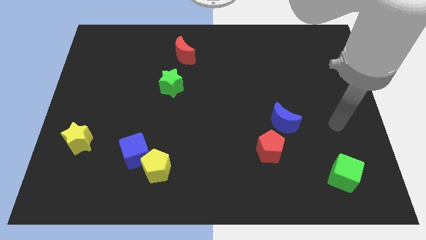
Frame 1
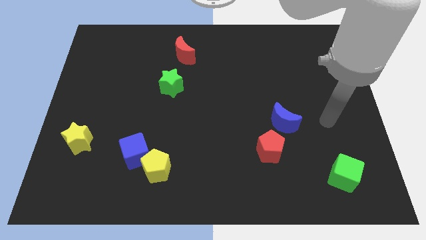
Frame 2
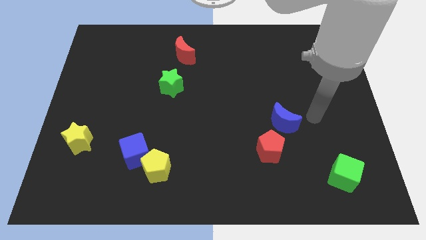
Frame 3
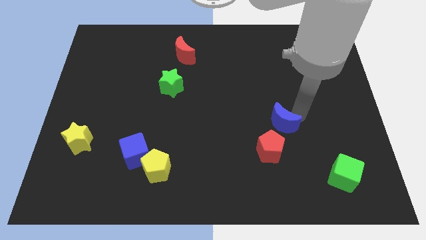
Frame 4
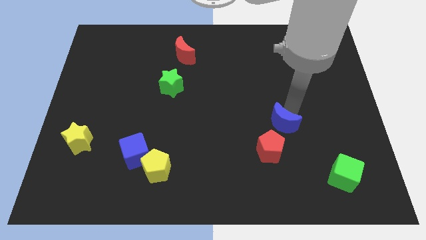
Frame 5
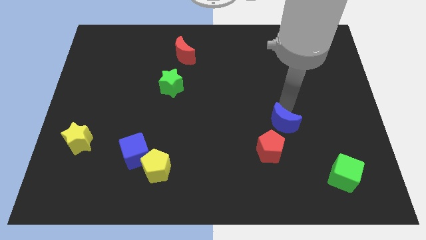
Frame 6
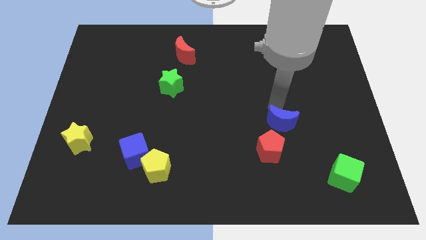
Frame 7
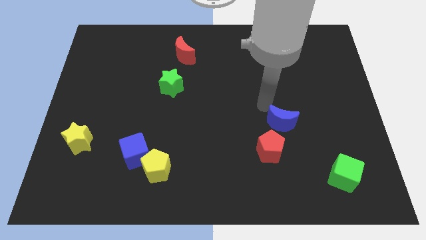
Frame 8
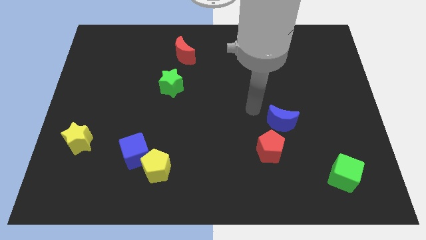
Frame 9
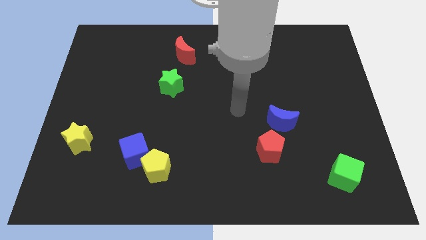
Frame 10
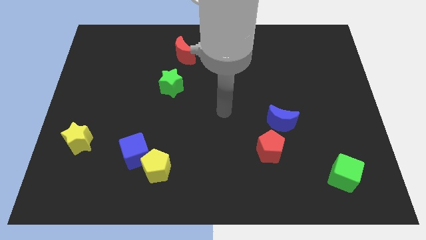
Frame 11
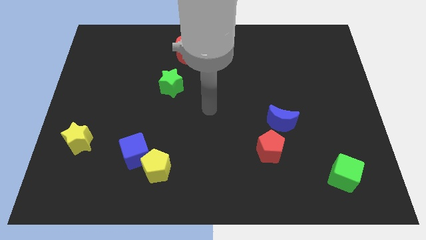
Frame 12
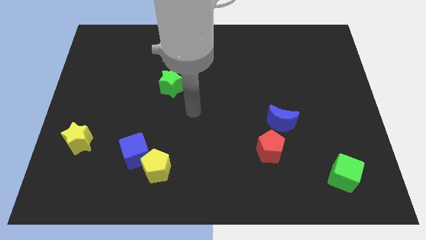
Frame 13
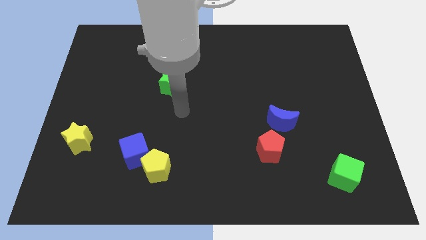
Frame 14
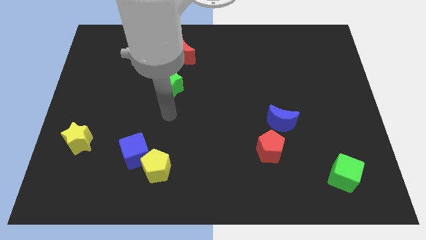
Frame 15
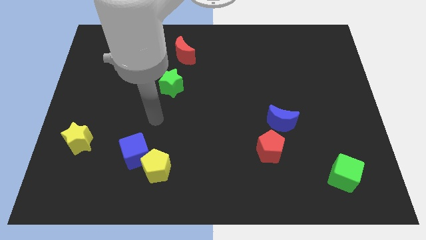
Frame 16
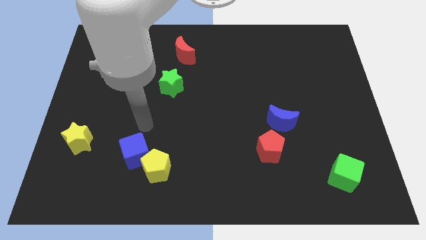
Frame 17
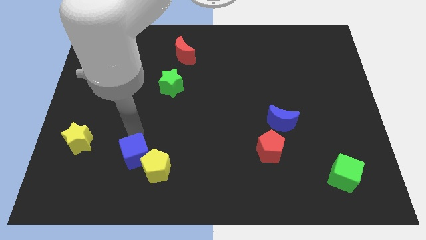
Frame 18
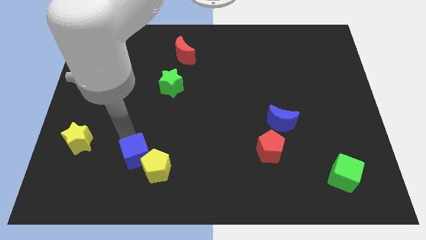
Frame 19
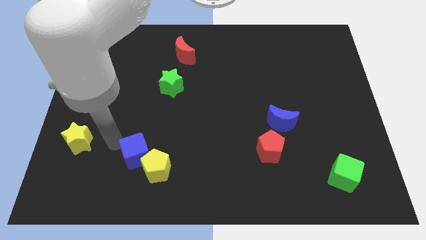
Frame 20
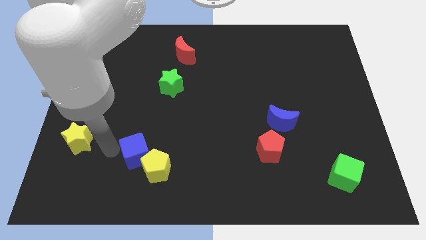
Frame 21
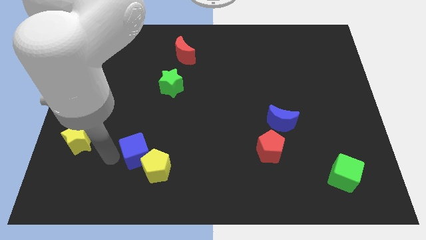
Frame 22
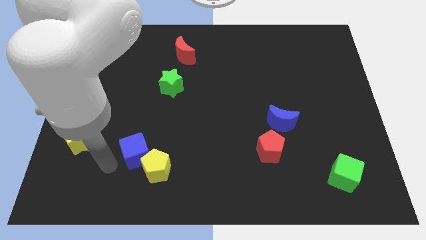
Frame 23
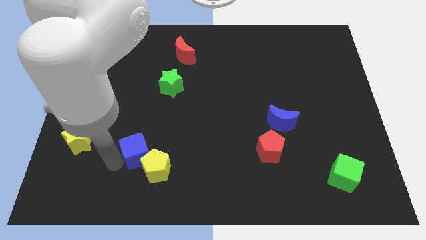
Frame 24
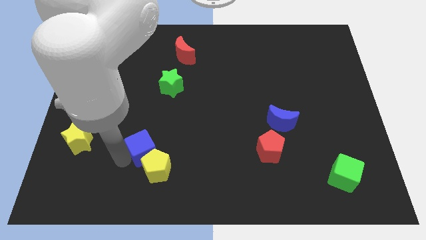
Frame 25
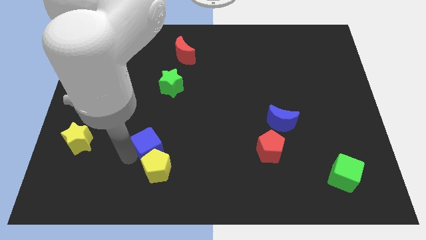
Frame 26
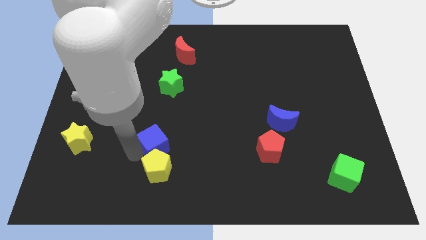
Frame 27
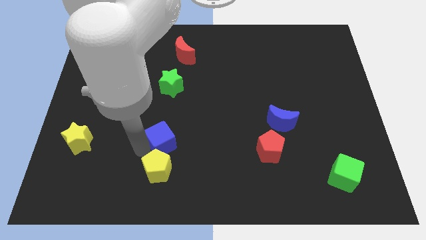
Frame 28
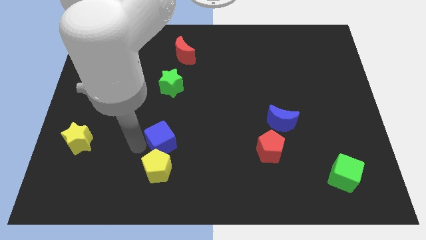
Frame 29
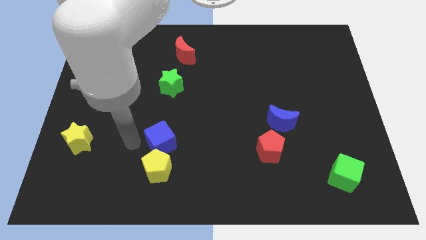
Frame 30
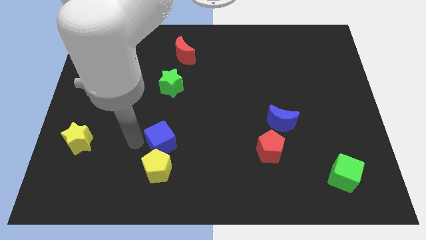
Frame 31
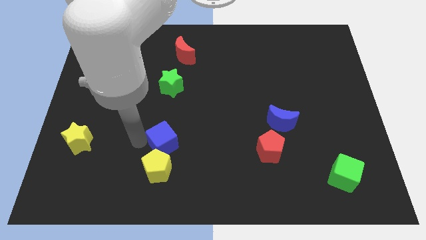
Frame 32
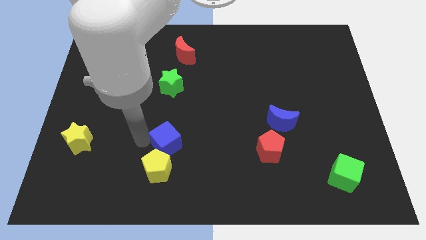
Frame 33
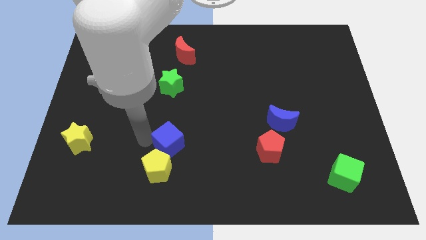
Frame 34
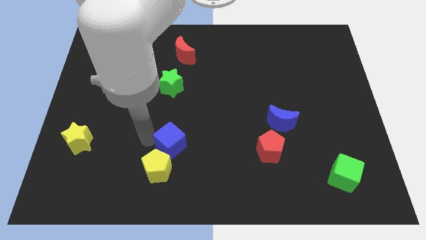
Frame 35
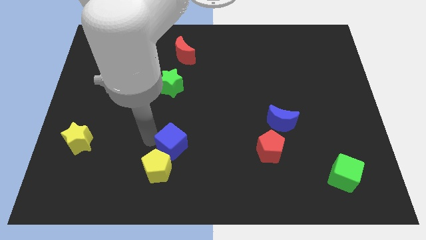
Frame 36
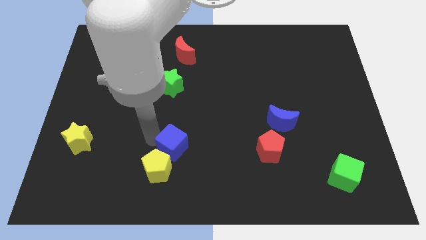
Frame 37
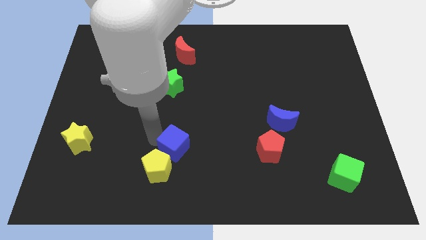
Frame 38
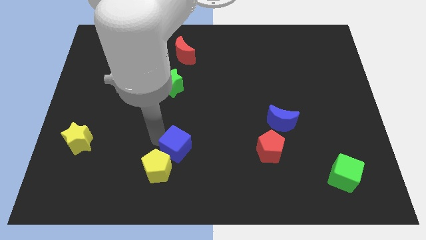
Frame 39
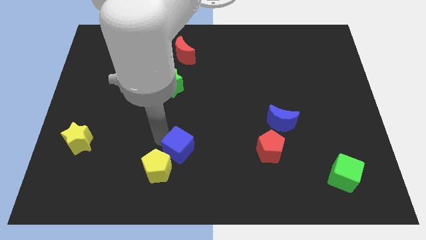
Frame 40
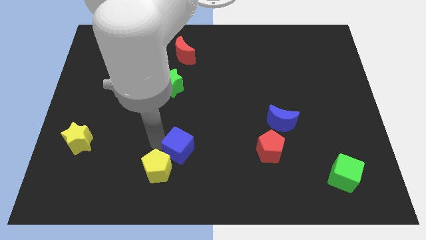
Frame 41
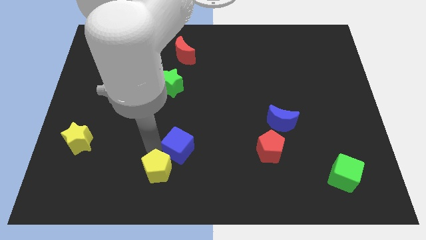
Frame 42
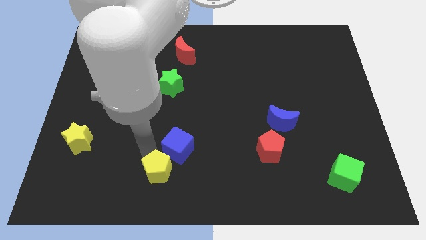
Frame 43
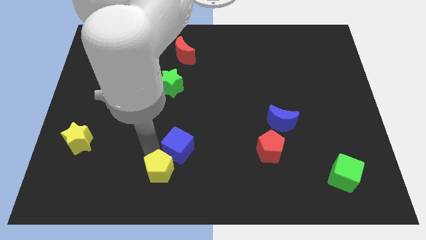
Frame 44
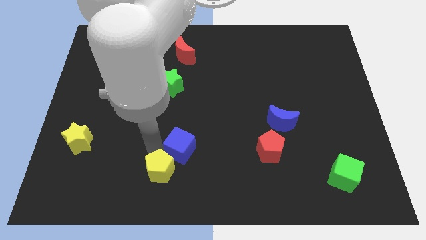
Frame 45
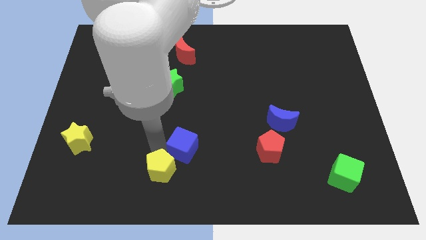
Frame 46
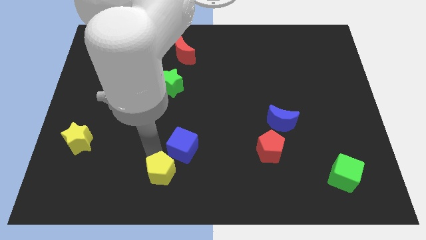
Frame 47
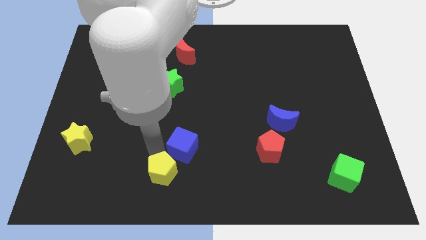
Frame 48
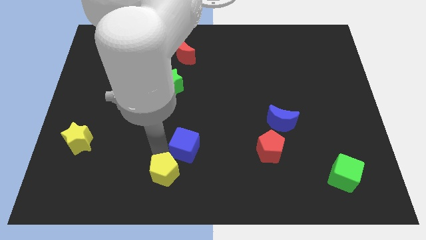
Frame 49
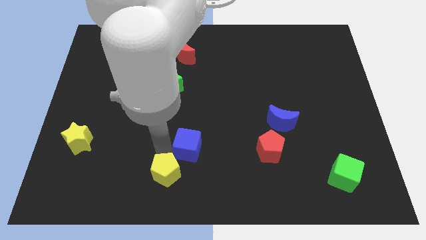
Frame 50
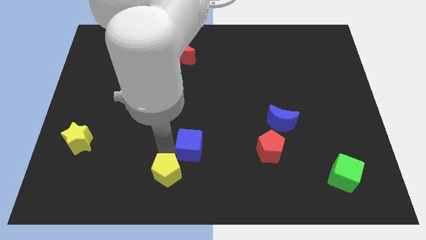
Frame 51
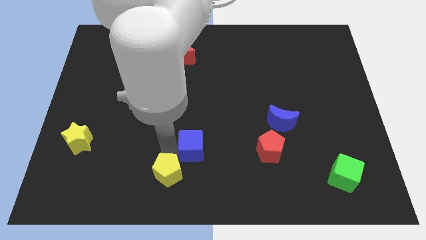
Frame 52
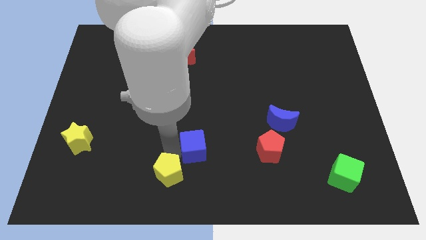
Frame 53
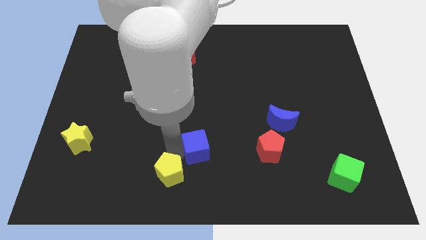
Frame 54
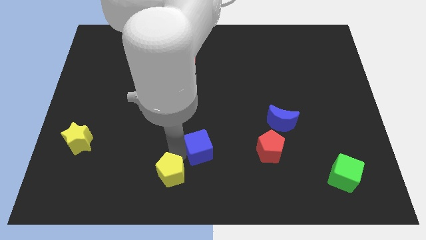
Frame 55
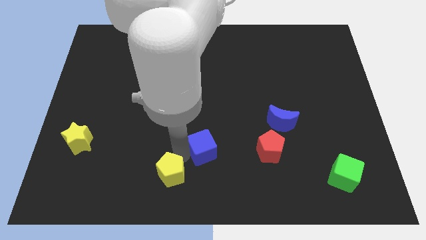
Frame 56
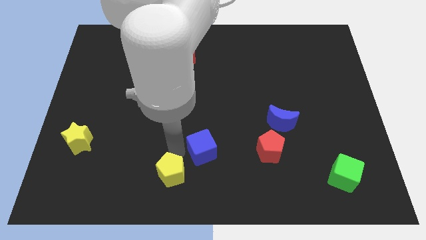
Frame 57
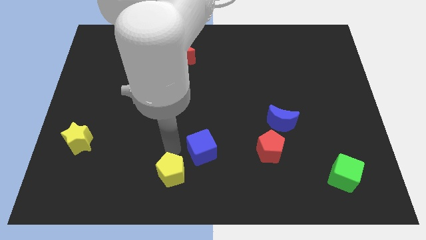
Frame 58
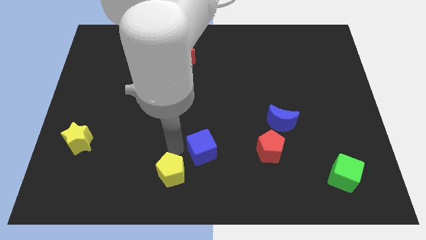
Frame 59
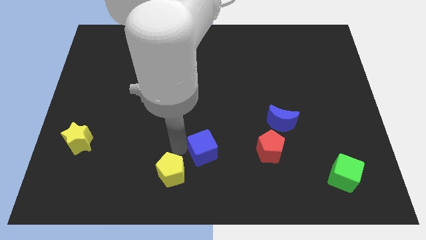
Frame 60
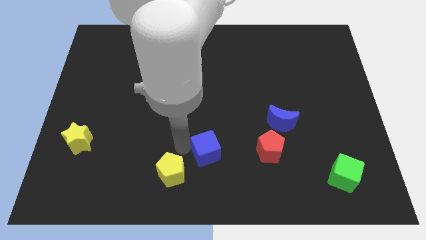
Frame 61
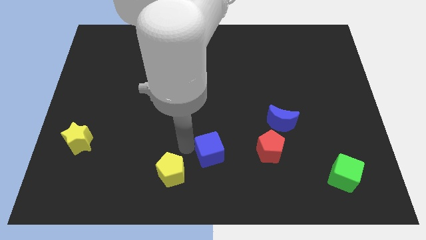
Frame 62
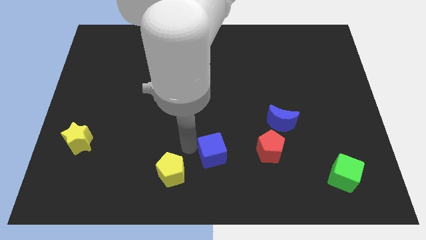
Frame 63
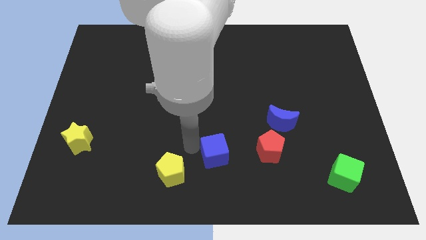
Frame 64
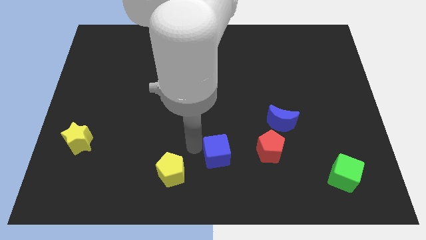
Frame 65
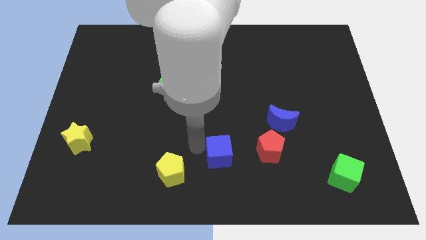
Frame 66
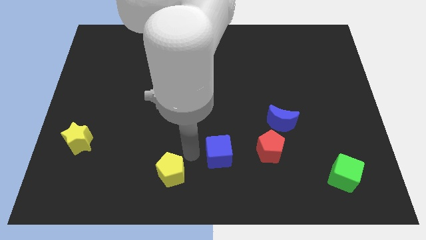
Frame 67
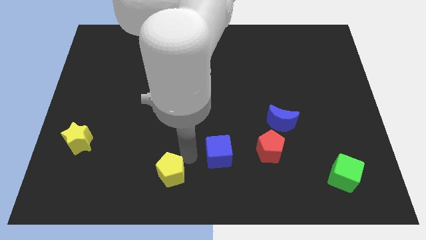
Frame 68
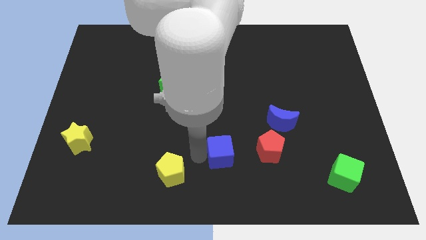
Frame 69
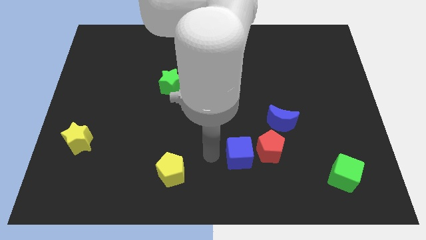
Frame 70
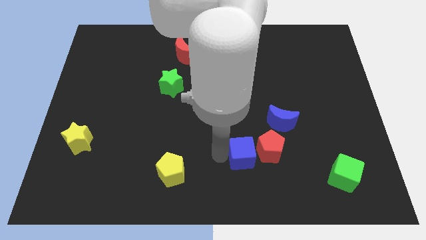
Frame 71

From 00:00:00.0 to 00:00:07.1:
slide the blue cube towards the red pentagon
